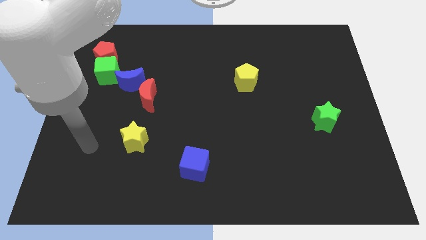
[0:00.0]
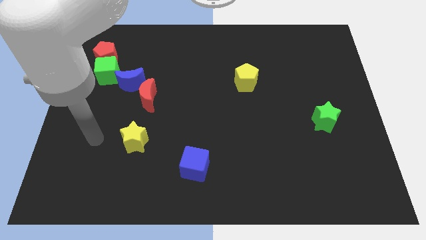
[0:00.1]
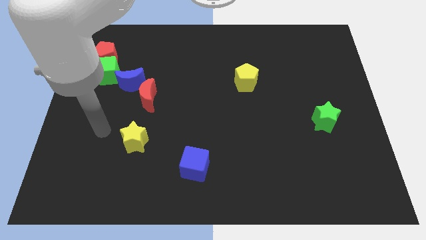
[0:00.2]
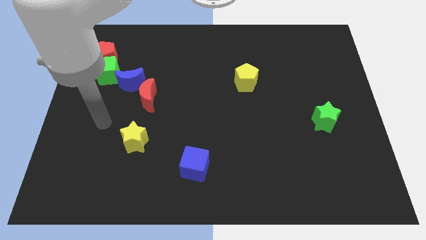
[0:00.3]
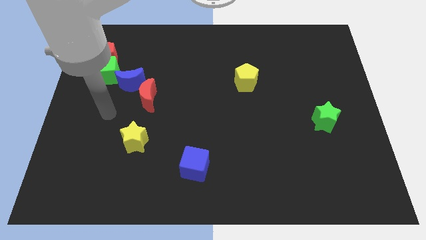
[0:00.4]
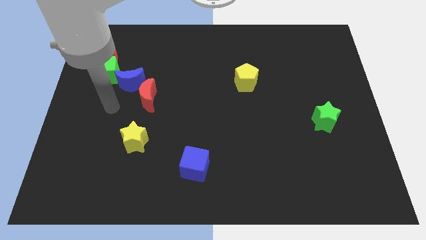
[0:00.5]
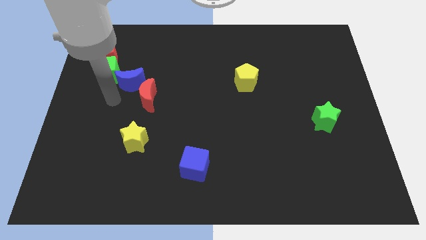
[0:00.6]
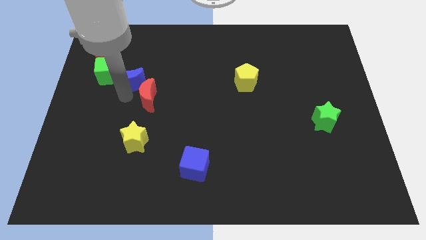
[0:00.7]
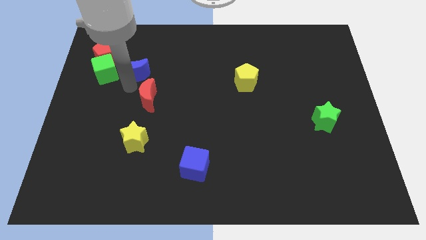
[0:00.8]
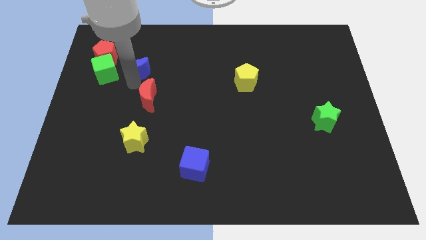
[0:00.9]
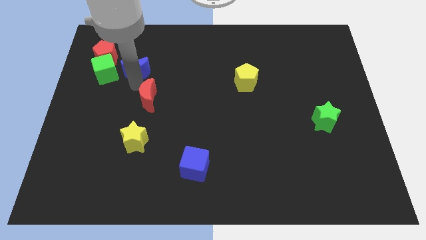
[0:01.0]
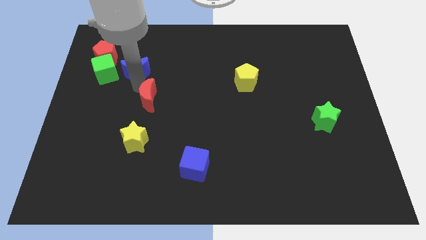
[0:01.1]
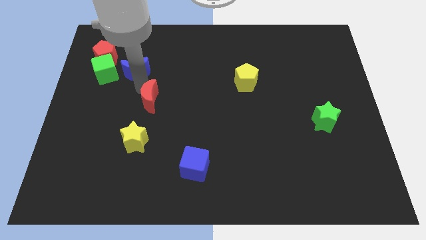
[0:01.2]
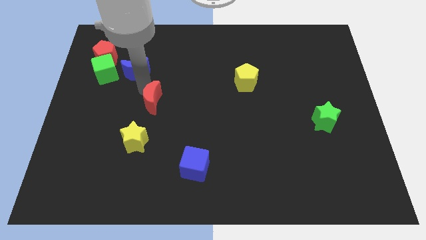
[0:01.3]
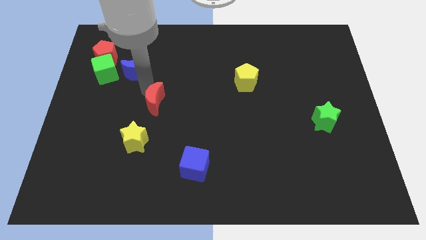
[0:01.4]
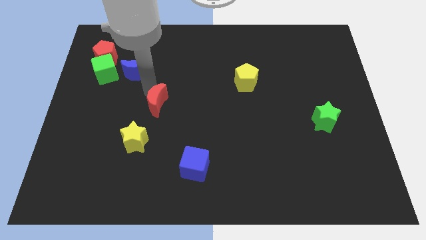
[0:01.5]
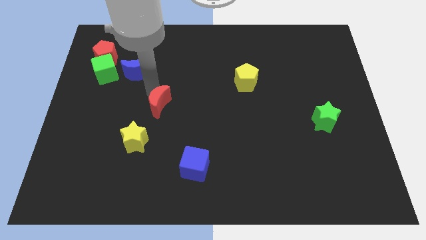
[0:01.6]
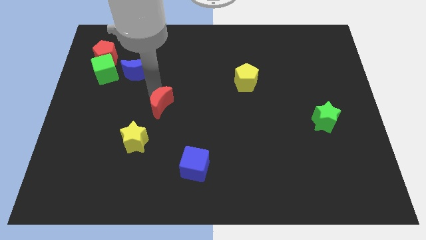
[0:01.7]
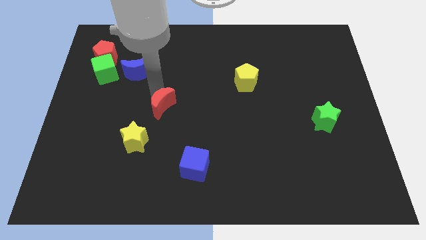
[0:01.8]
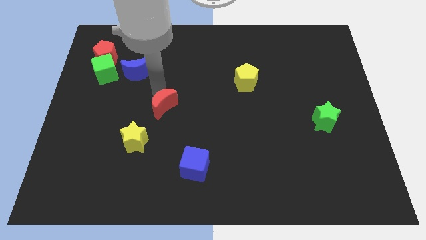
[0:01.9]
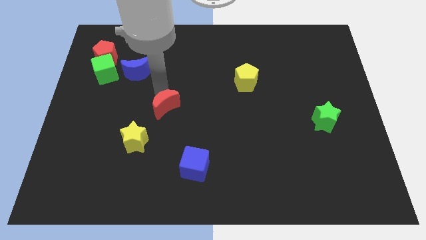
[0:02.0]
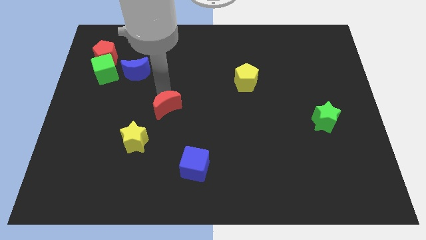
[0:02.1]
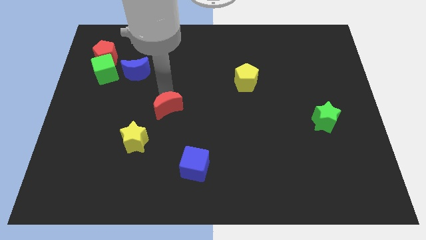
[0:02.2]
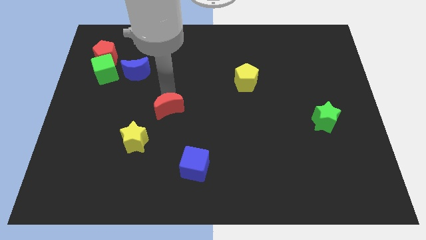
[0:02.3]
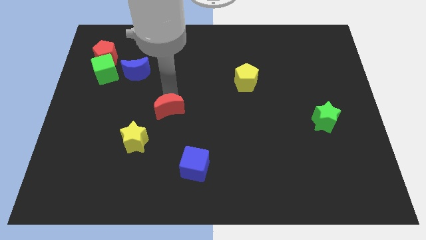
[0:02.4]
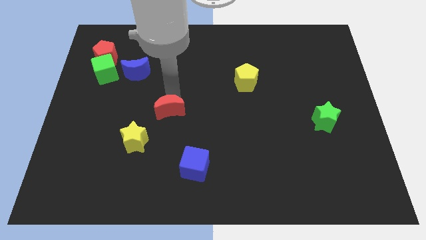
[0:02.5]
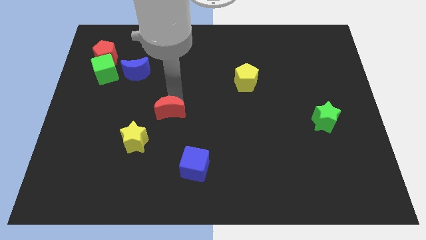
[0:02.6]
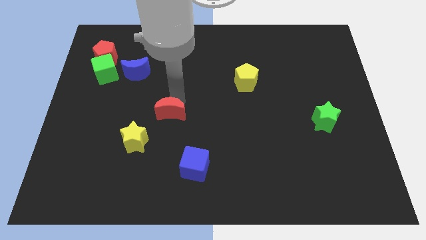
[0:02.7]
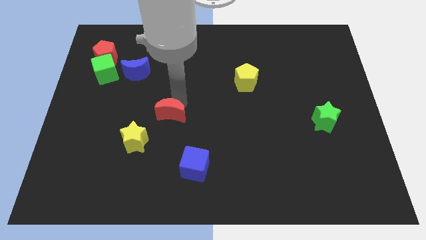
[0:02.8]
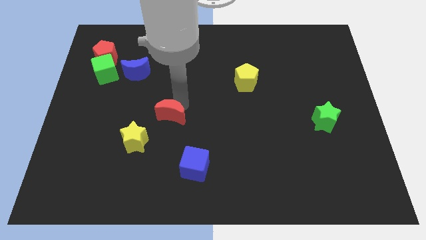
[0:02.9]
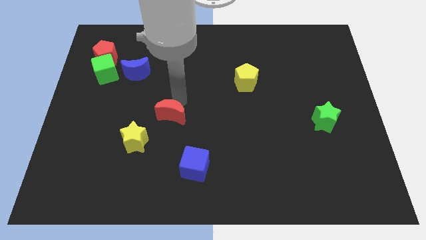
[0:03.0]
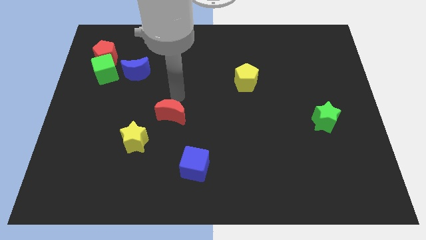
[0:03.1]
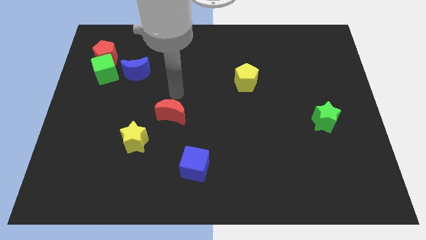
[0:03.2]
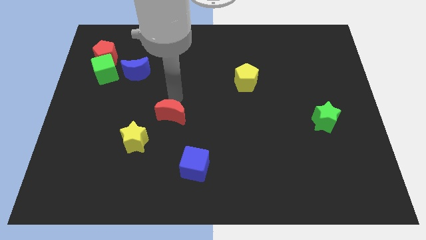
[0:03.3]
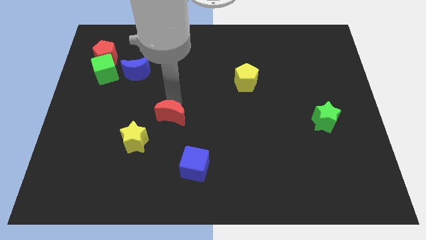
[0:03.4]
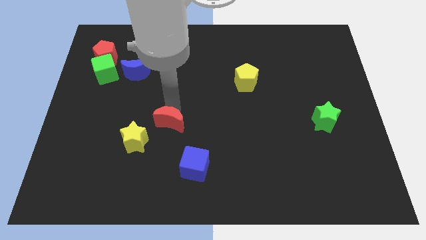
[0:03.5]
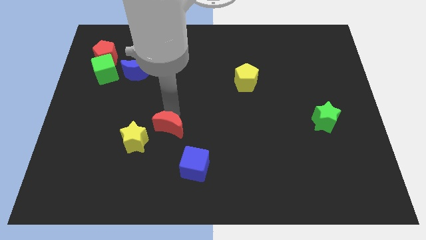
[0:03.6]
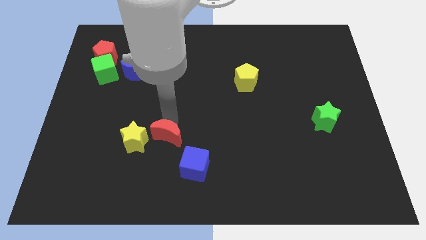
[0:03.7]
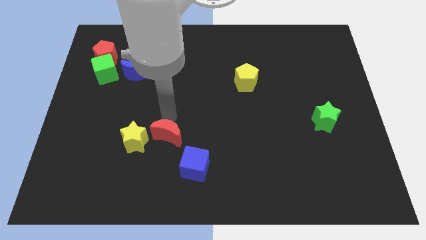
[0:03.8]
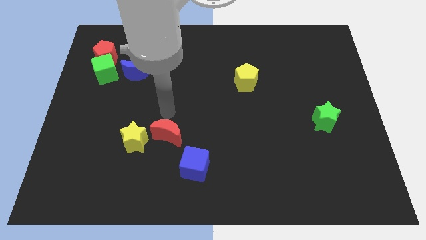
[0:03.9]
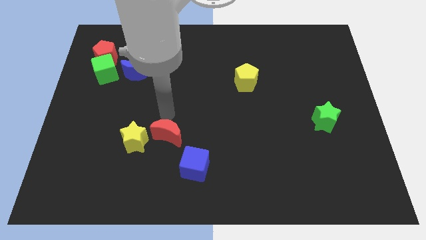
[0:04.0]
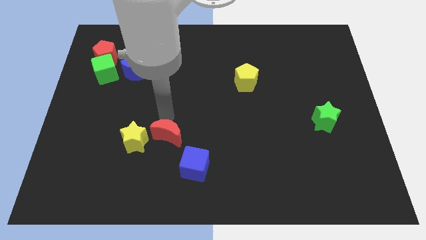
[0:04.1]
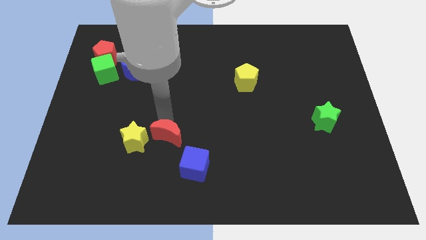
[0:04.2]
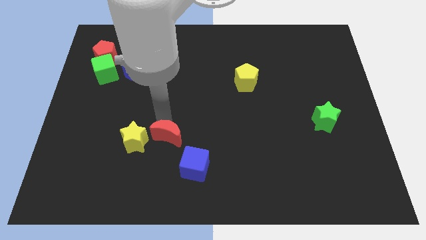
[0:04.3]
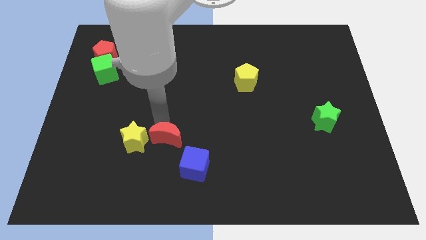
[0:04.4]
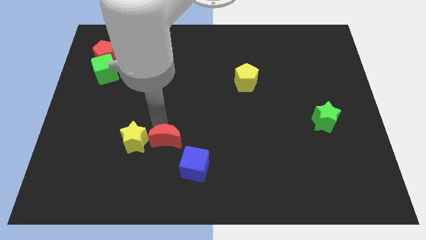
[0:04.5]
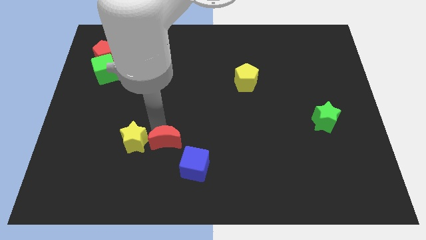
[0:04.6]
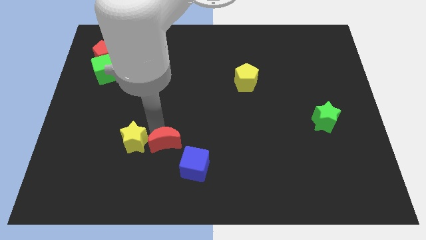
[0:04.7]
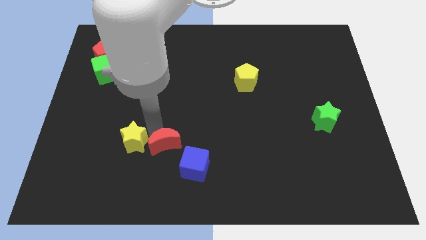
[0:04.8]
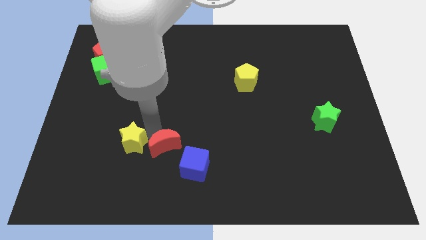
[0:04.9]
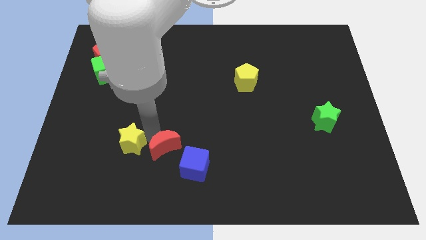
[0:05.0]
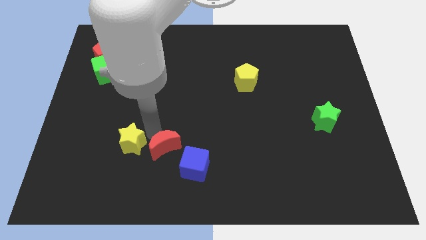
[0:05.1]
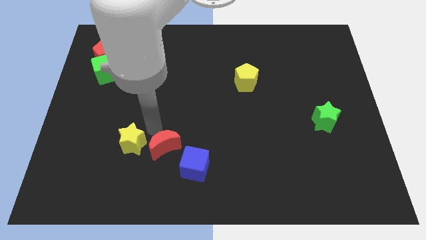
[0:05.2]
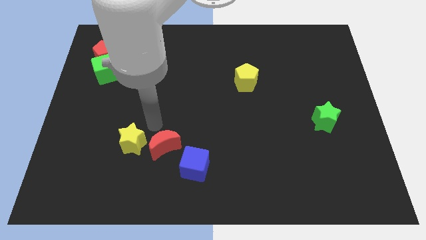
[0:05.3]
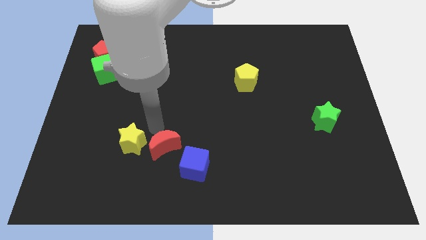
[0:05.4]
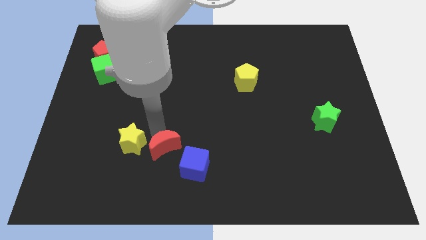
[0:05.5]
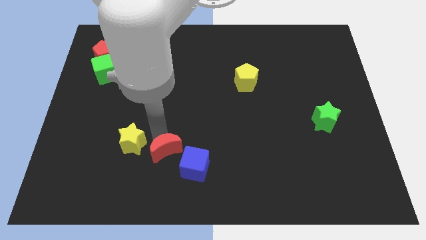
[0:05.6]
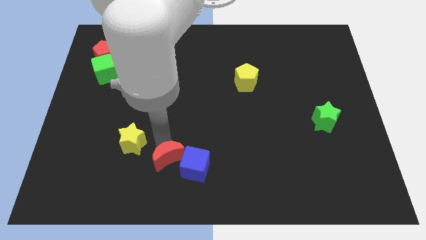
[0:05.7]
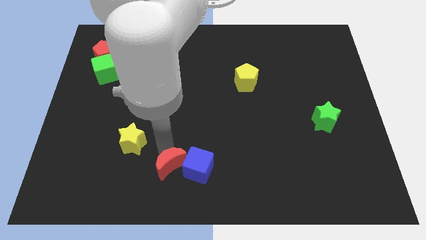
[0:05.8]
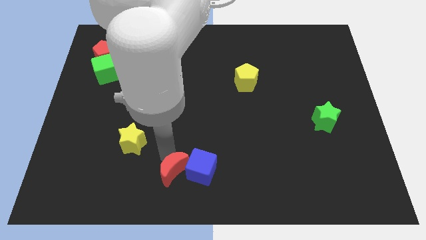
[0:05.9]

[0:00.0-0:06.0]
push the red moon to the bottom

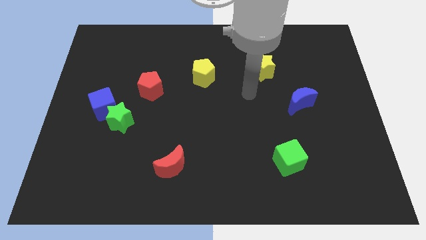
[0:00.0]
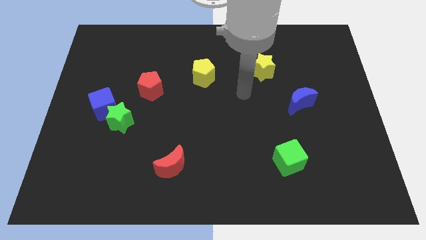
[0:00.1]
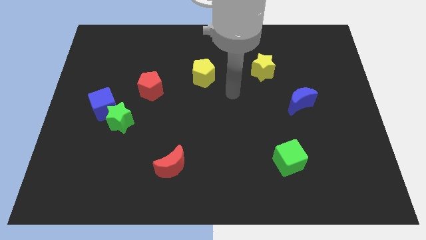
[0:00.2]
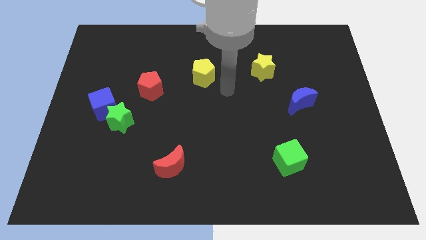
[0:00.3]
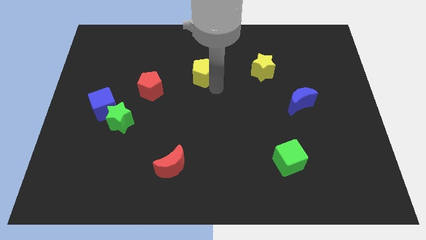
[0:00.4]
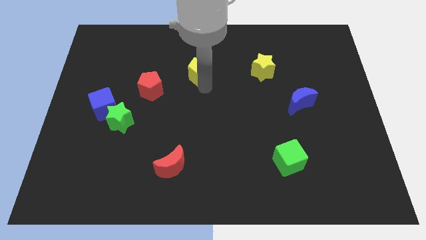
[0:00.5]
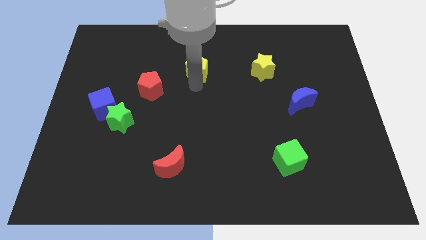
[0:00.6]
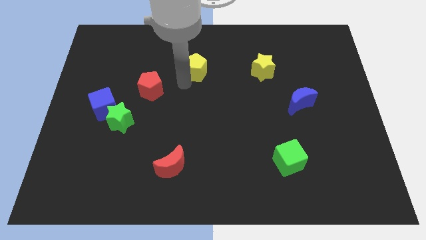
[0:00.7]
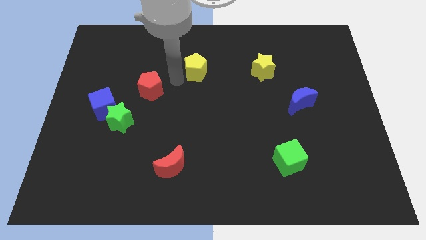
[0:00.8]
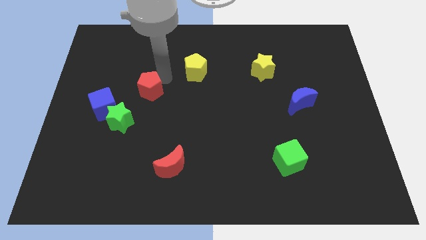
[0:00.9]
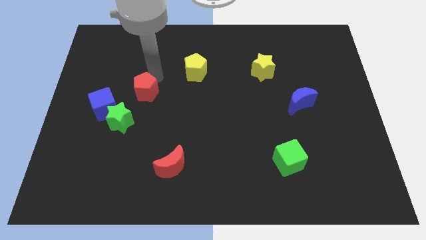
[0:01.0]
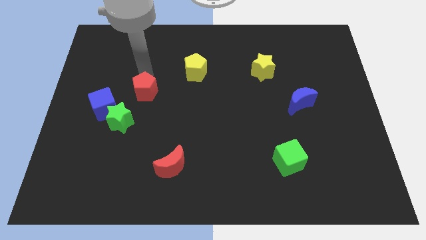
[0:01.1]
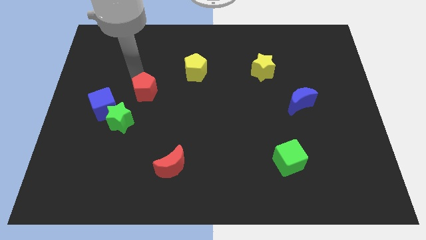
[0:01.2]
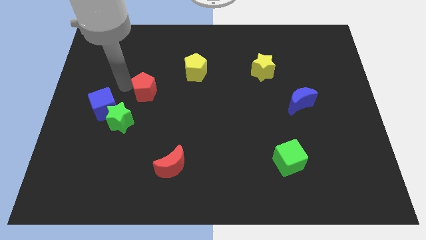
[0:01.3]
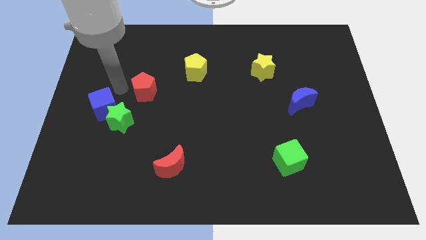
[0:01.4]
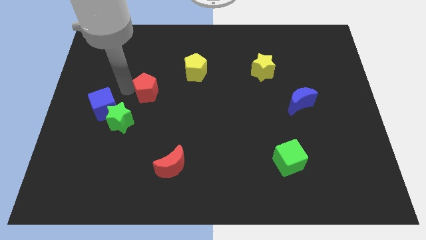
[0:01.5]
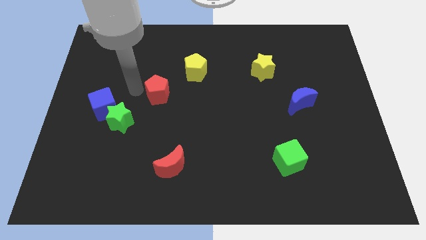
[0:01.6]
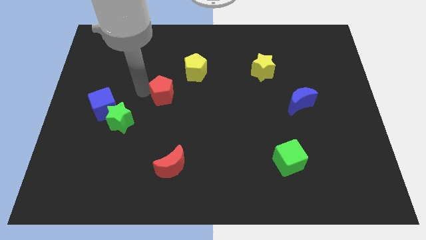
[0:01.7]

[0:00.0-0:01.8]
put the red pentagon to the center

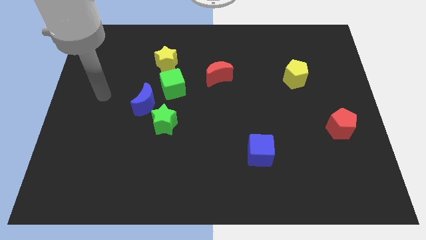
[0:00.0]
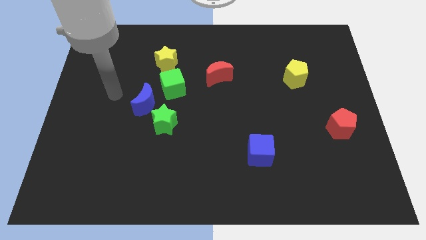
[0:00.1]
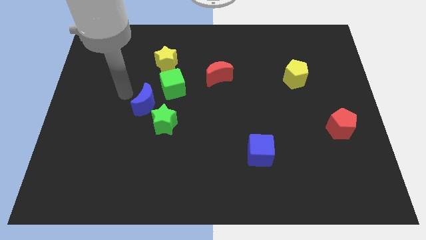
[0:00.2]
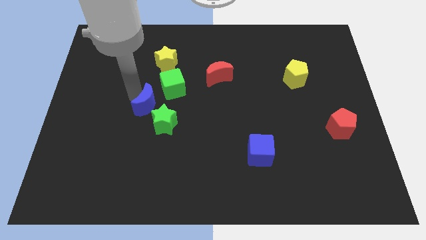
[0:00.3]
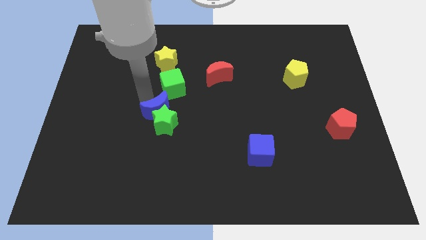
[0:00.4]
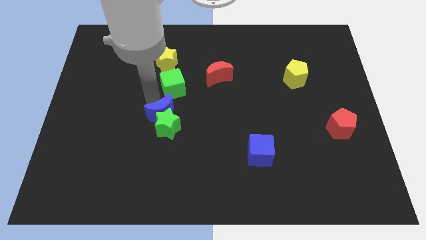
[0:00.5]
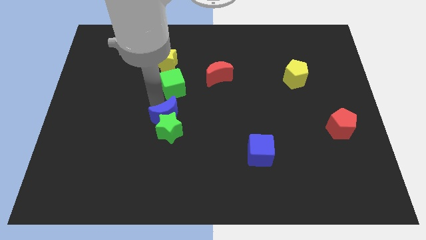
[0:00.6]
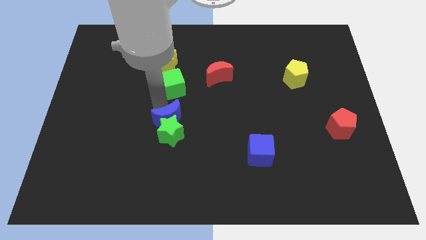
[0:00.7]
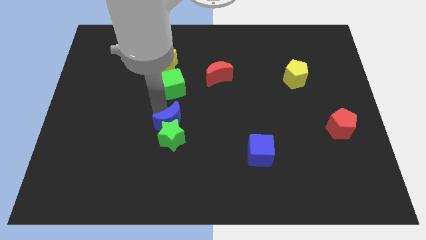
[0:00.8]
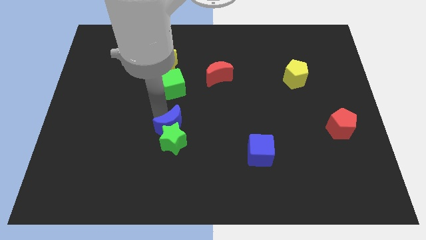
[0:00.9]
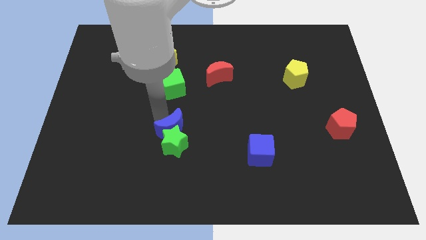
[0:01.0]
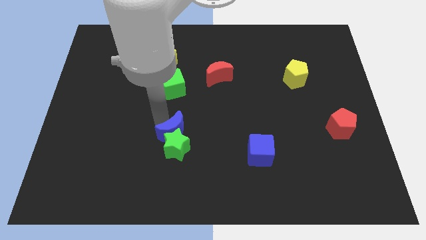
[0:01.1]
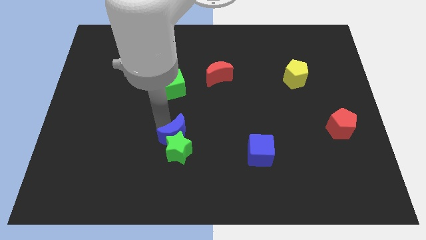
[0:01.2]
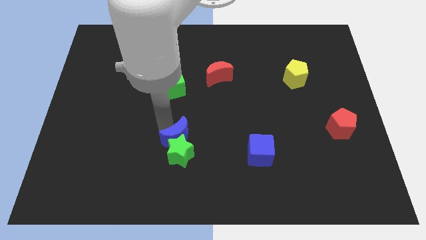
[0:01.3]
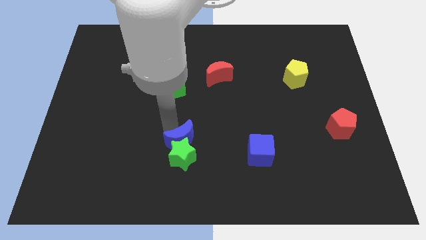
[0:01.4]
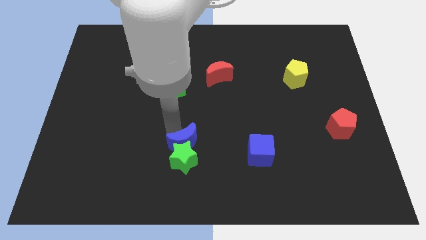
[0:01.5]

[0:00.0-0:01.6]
push the green star to the bottom side
